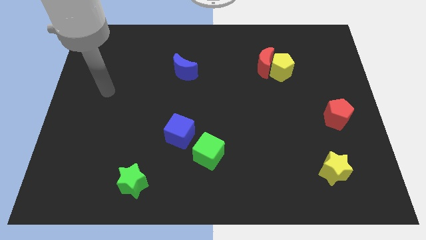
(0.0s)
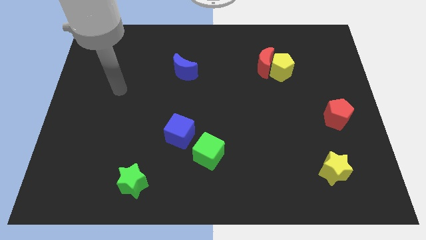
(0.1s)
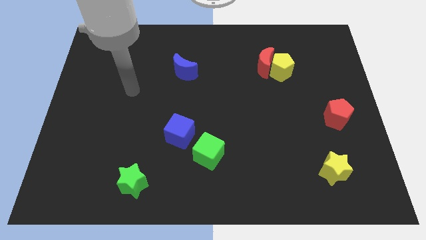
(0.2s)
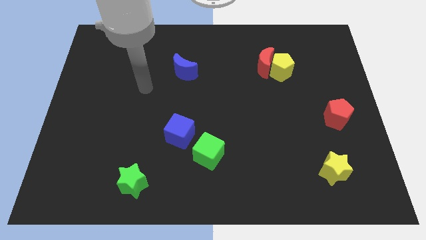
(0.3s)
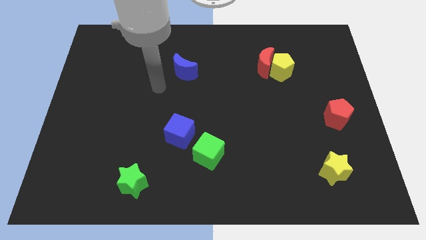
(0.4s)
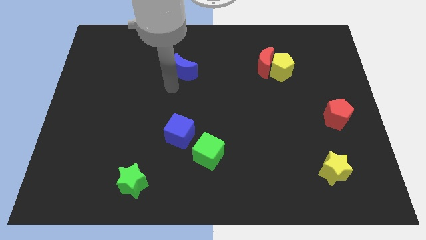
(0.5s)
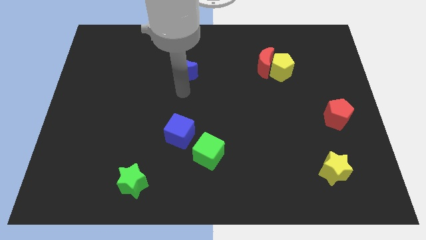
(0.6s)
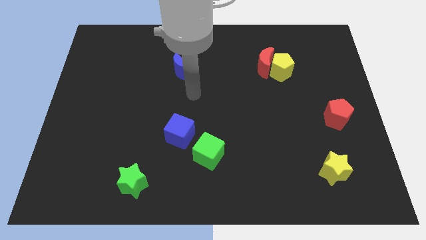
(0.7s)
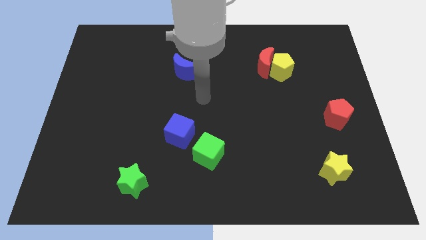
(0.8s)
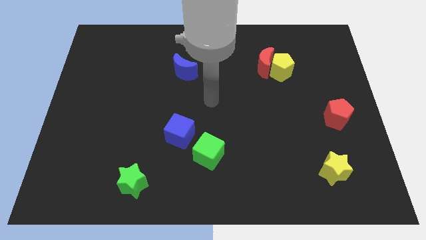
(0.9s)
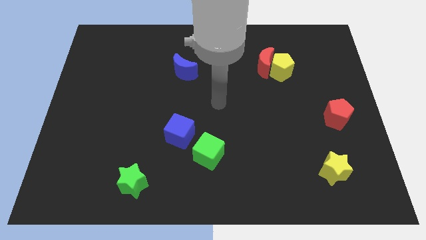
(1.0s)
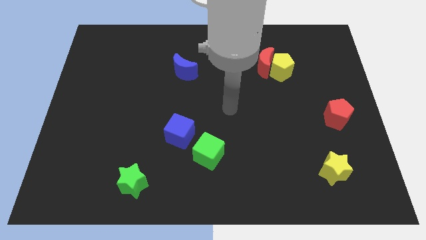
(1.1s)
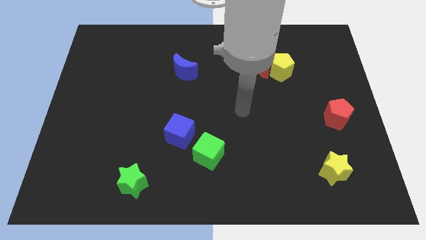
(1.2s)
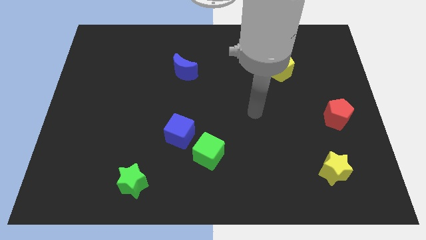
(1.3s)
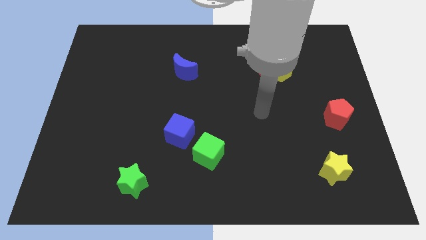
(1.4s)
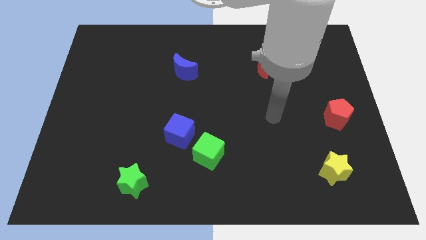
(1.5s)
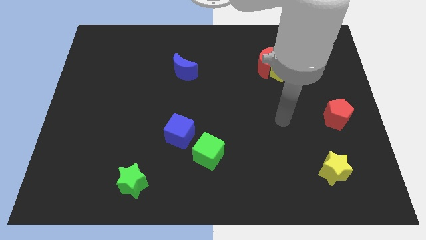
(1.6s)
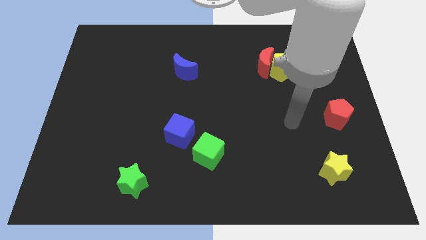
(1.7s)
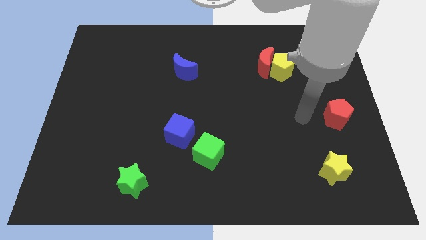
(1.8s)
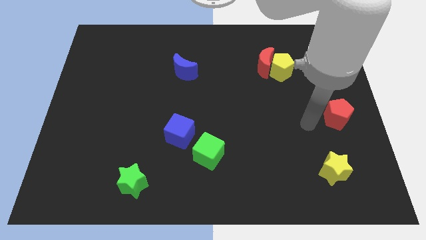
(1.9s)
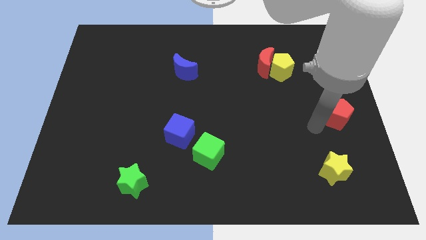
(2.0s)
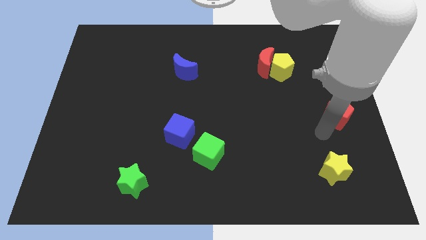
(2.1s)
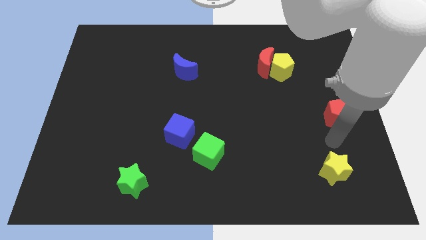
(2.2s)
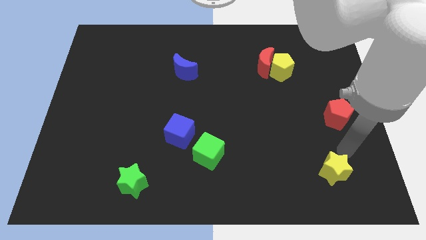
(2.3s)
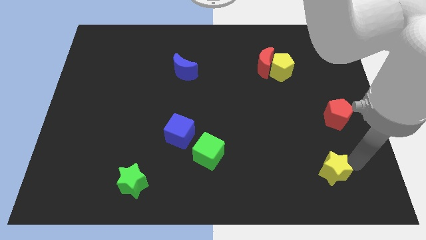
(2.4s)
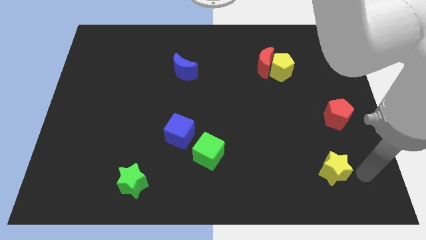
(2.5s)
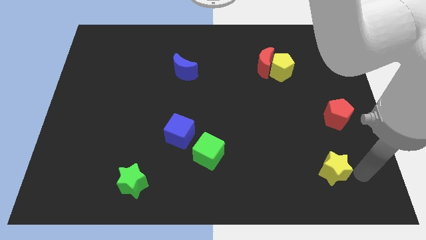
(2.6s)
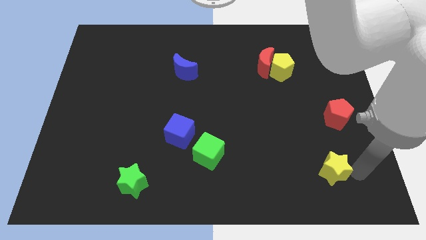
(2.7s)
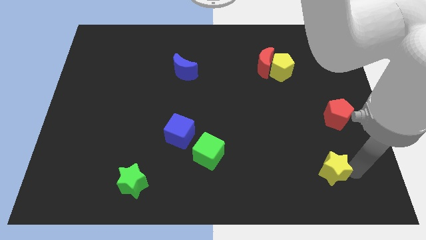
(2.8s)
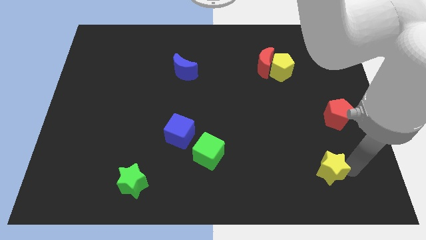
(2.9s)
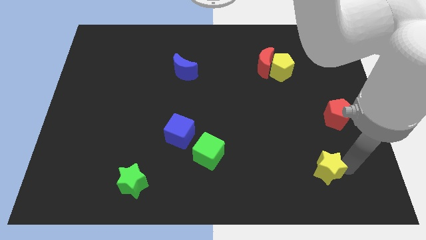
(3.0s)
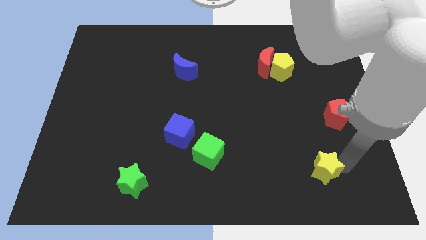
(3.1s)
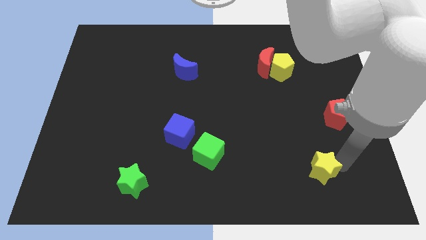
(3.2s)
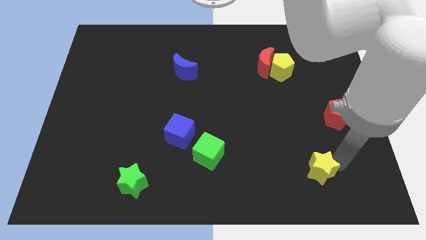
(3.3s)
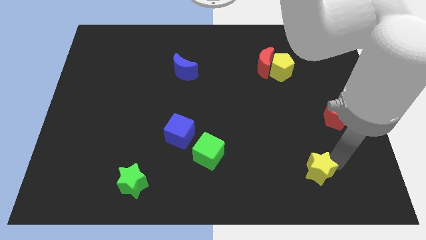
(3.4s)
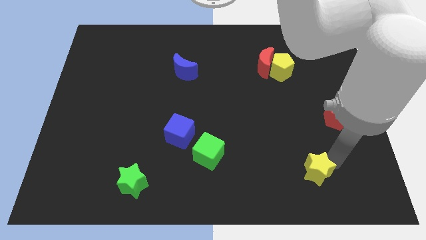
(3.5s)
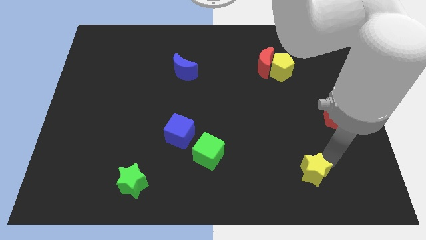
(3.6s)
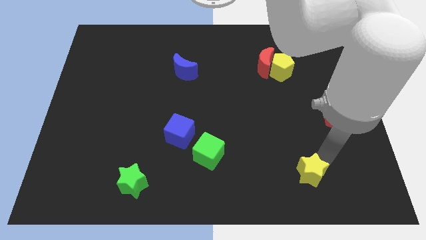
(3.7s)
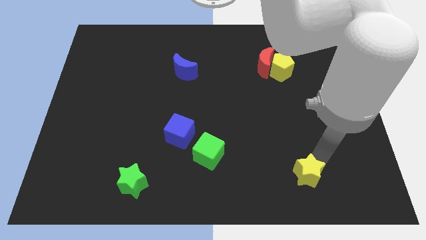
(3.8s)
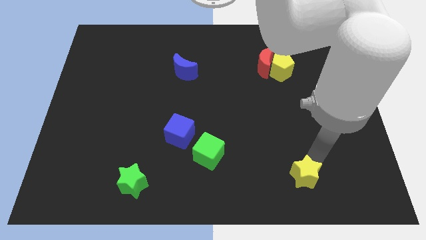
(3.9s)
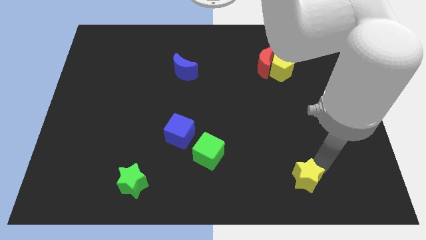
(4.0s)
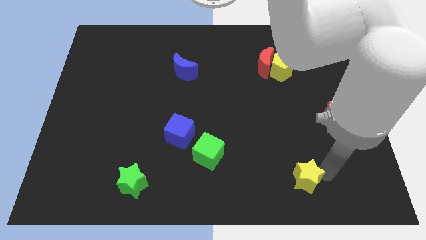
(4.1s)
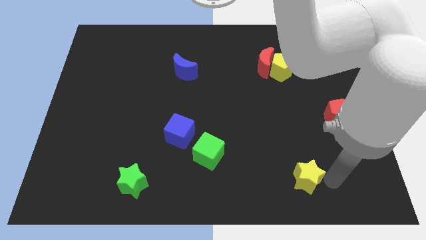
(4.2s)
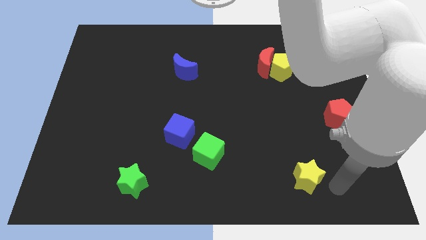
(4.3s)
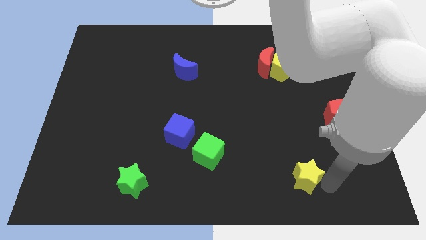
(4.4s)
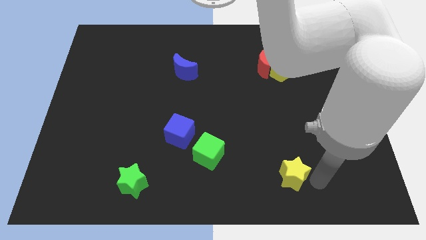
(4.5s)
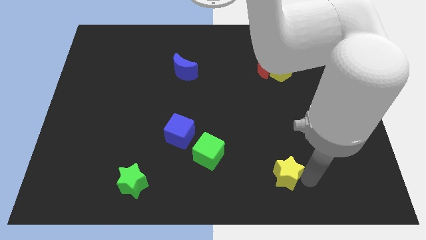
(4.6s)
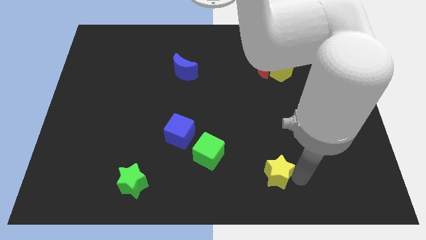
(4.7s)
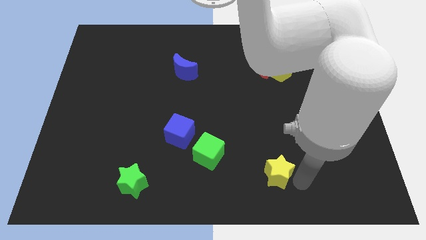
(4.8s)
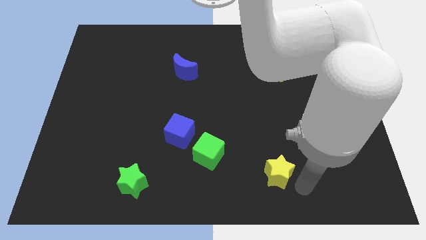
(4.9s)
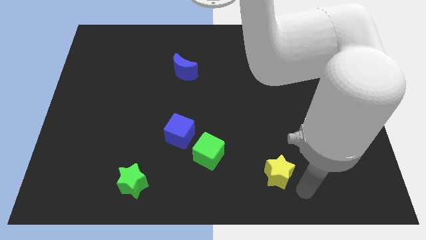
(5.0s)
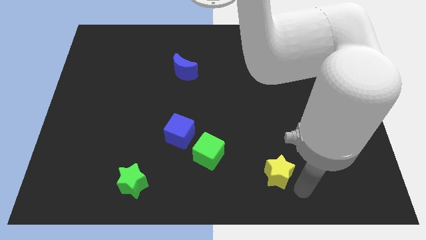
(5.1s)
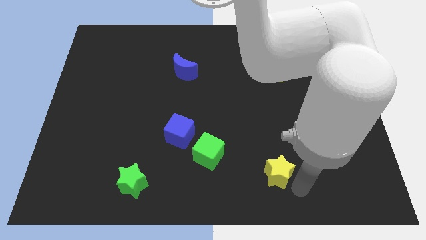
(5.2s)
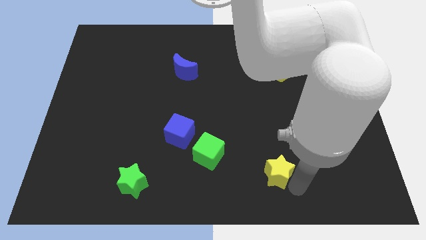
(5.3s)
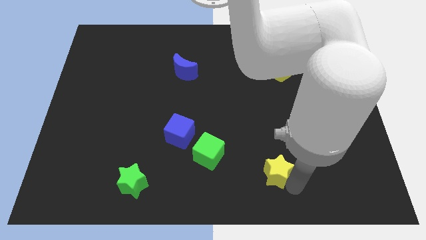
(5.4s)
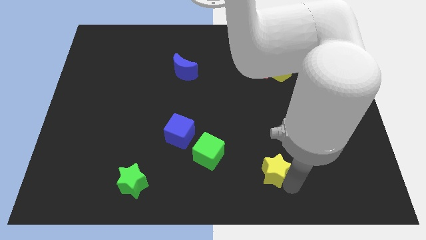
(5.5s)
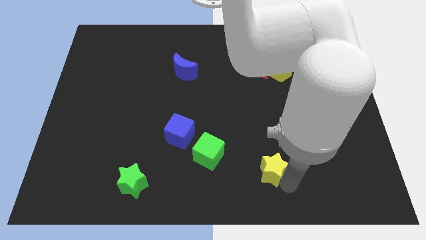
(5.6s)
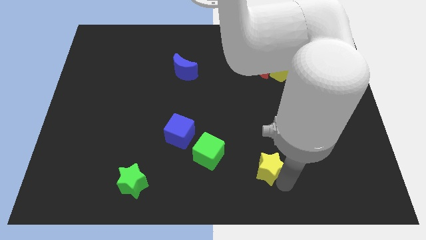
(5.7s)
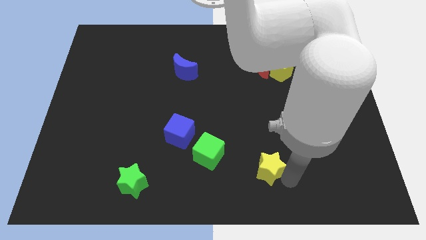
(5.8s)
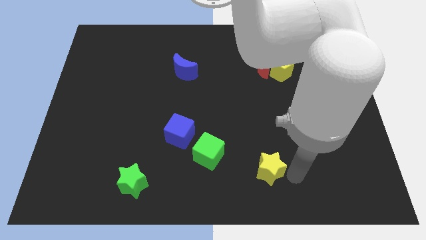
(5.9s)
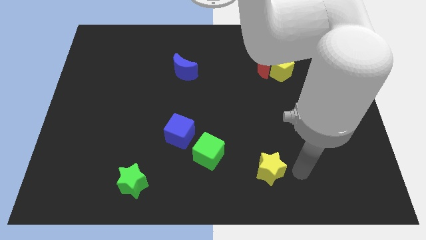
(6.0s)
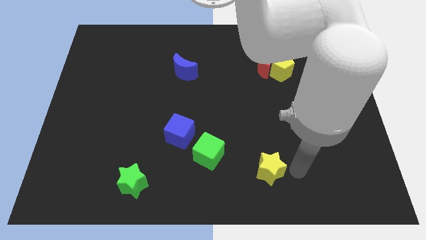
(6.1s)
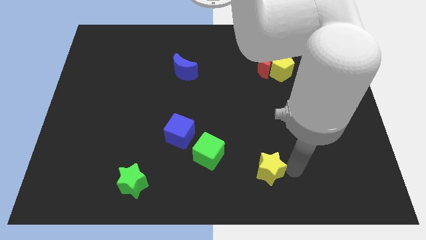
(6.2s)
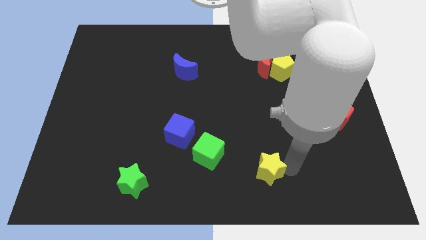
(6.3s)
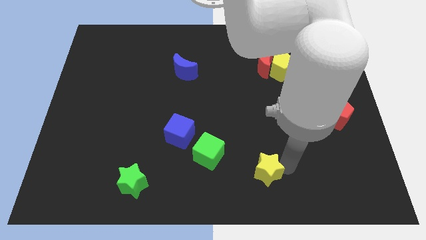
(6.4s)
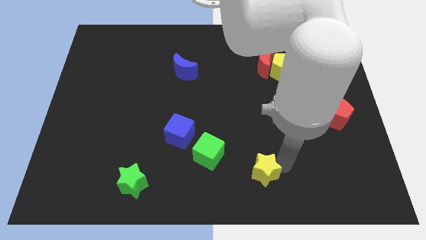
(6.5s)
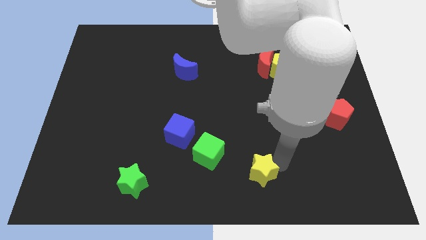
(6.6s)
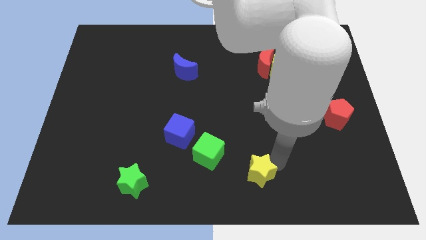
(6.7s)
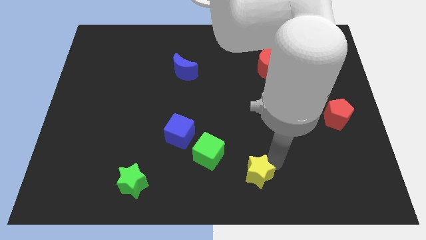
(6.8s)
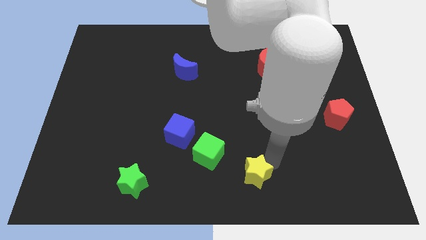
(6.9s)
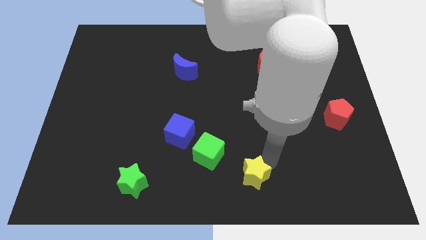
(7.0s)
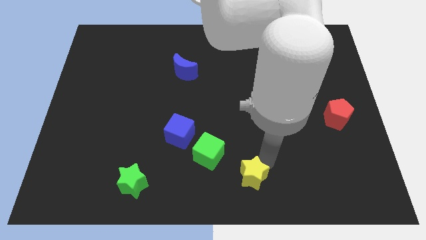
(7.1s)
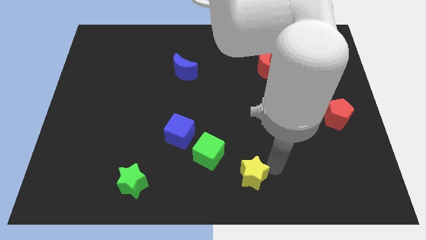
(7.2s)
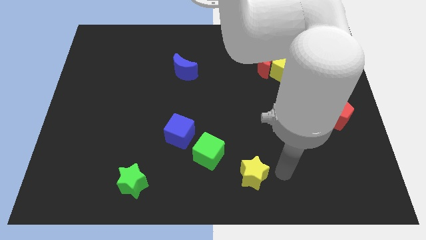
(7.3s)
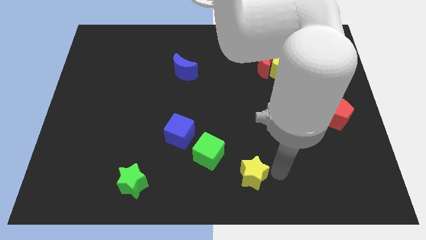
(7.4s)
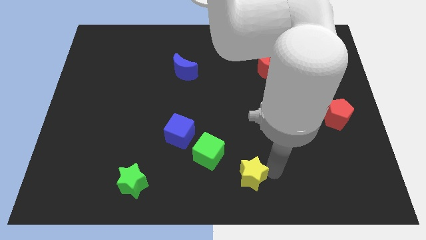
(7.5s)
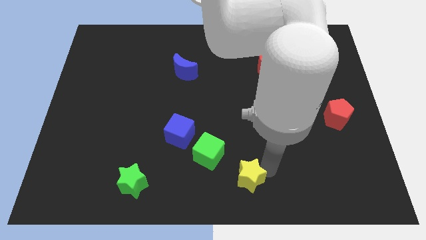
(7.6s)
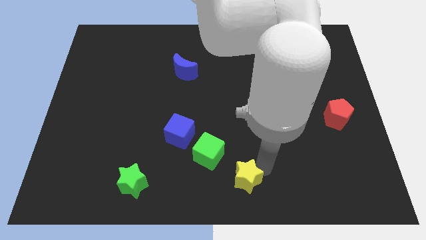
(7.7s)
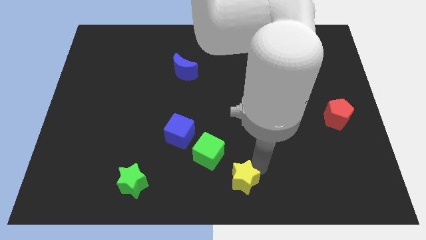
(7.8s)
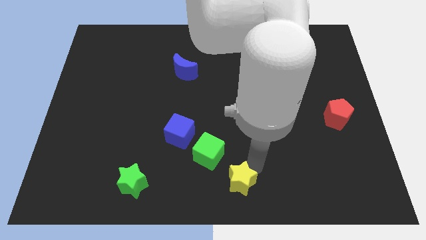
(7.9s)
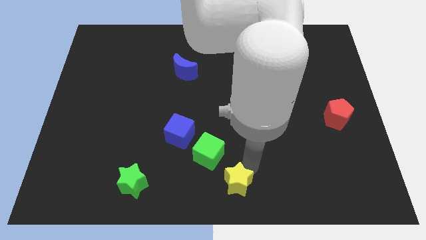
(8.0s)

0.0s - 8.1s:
push the yellow star left
